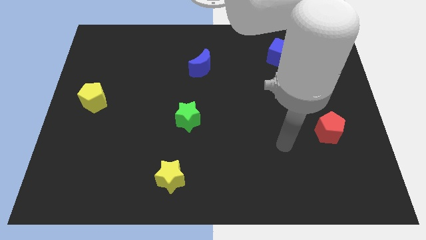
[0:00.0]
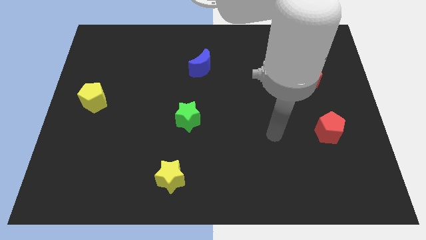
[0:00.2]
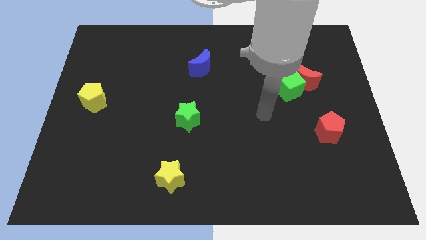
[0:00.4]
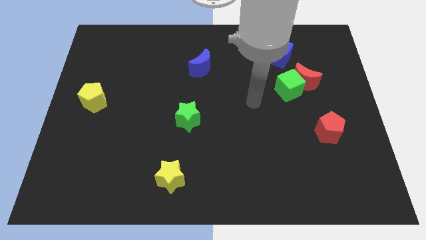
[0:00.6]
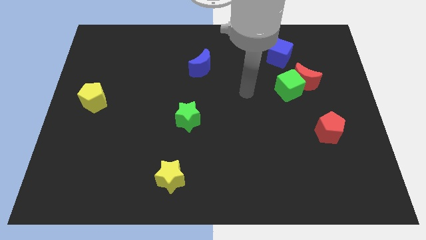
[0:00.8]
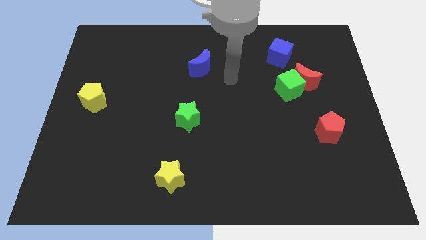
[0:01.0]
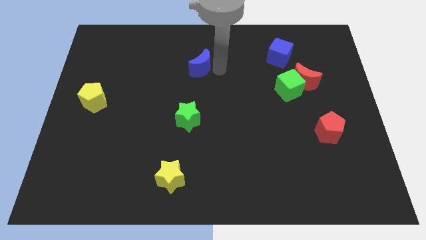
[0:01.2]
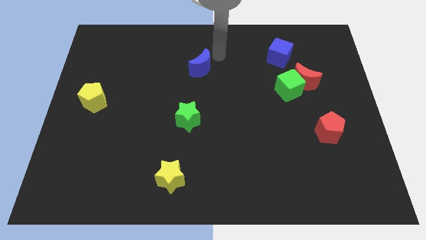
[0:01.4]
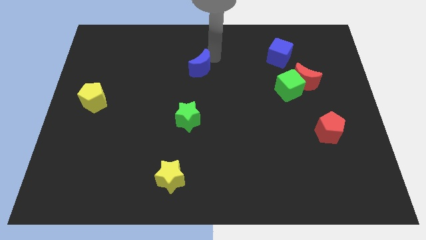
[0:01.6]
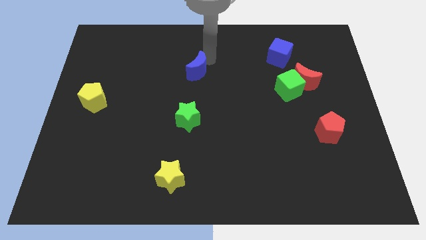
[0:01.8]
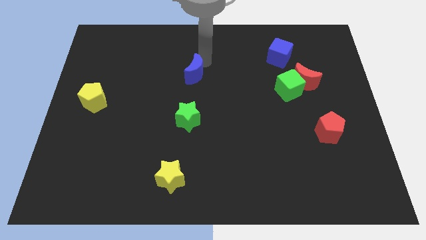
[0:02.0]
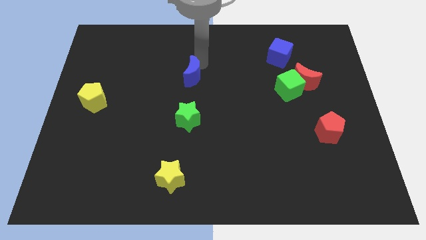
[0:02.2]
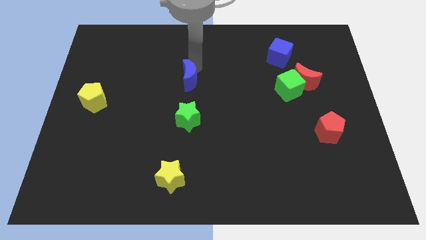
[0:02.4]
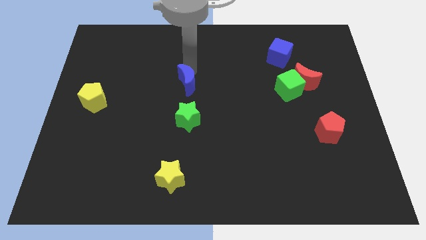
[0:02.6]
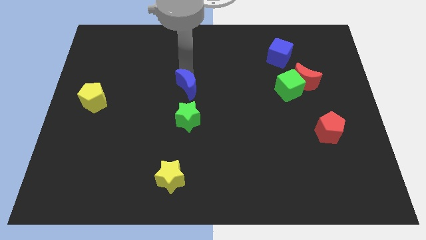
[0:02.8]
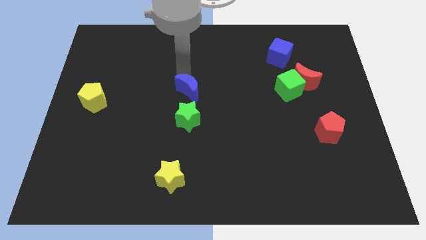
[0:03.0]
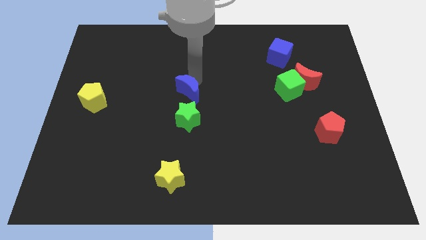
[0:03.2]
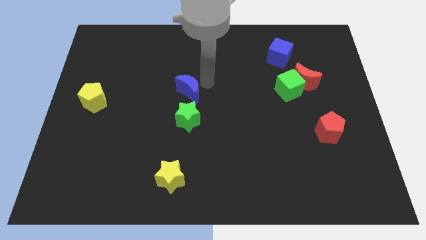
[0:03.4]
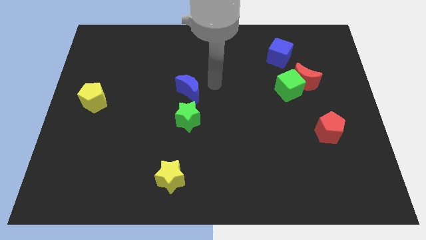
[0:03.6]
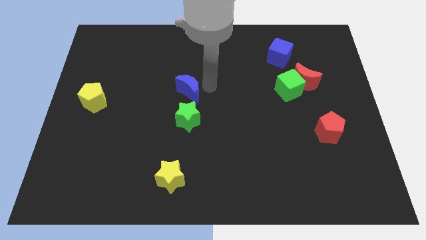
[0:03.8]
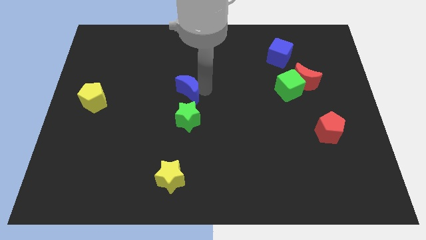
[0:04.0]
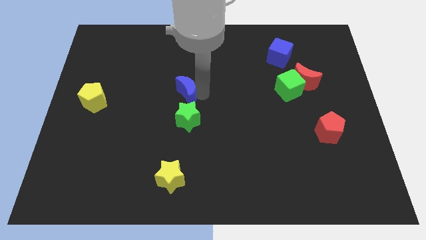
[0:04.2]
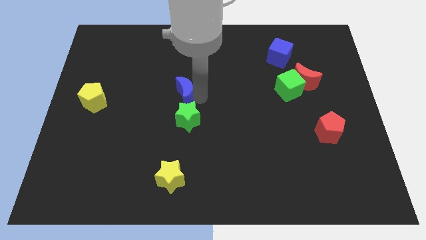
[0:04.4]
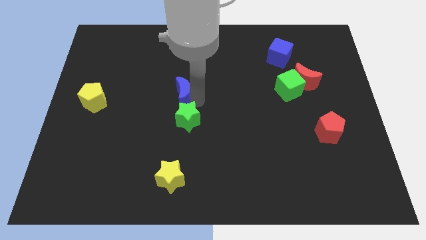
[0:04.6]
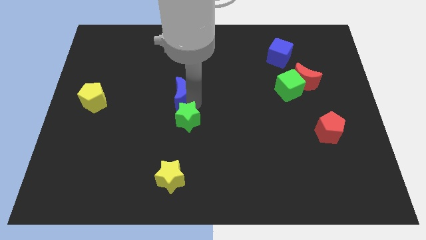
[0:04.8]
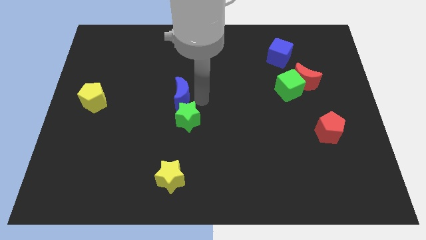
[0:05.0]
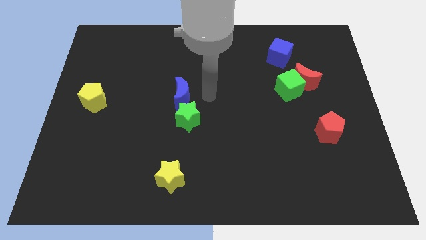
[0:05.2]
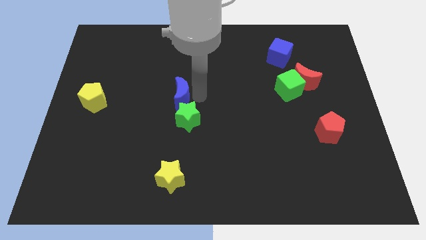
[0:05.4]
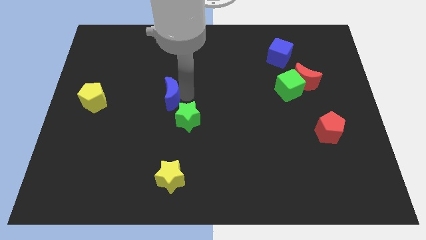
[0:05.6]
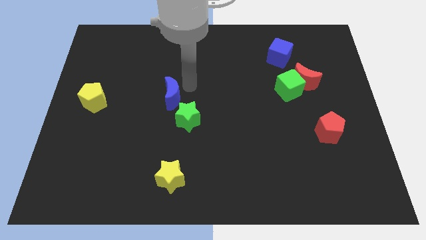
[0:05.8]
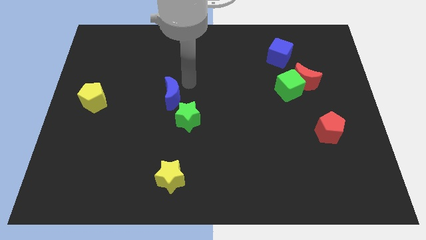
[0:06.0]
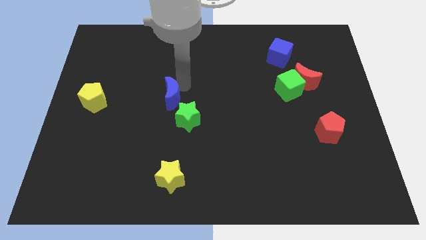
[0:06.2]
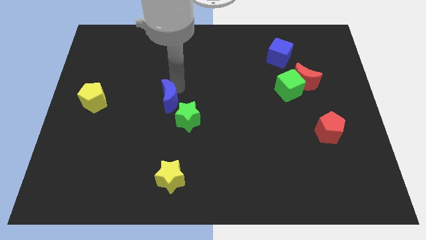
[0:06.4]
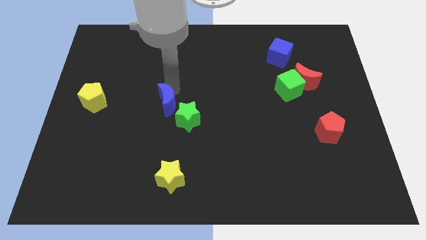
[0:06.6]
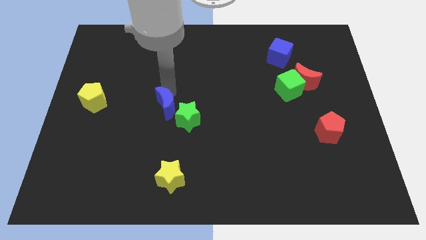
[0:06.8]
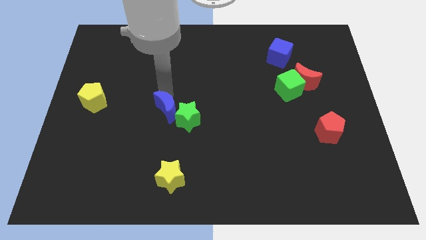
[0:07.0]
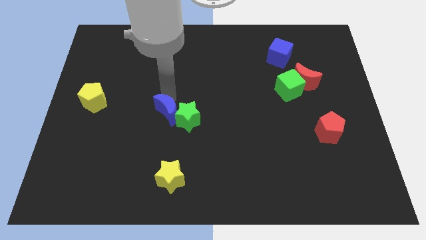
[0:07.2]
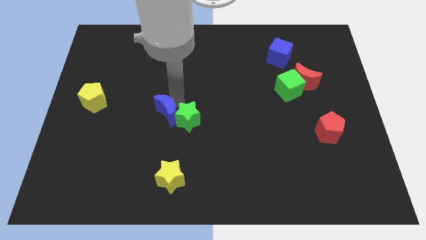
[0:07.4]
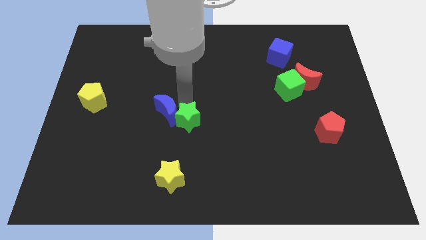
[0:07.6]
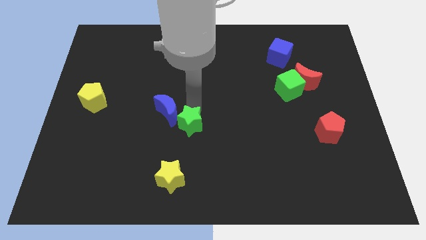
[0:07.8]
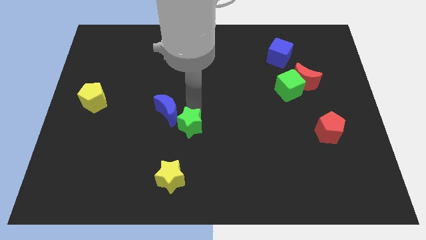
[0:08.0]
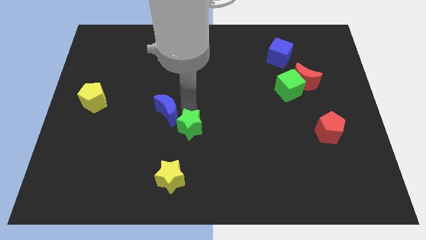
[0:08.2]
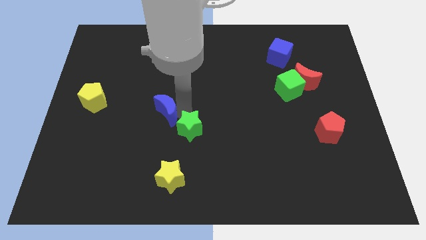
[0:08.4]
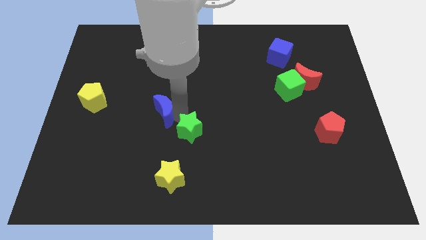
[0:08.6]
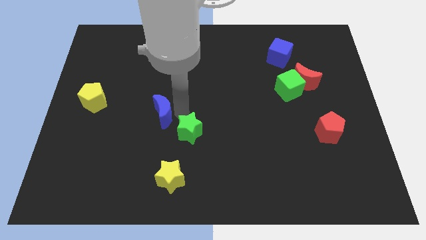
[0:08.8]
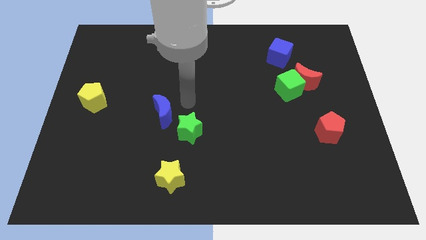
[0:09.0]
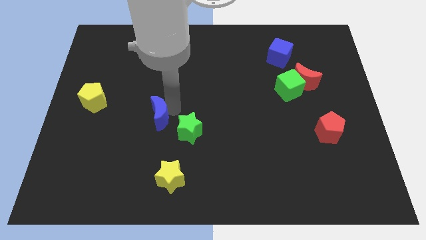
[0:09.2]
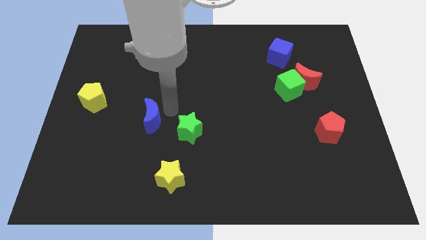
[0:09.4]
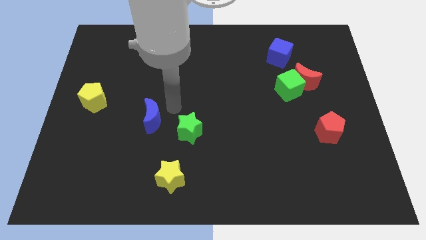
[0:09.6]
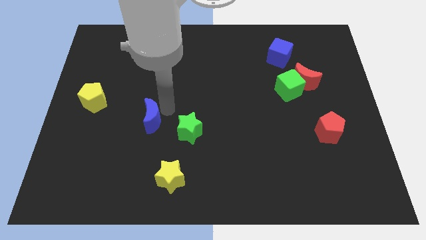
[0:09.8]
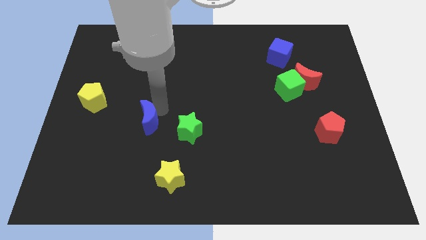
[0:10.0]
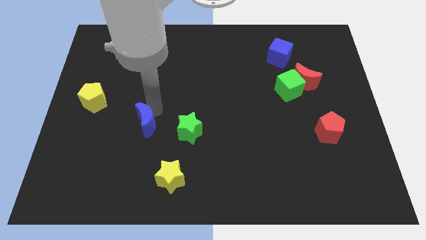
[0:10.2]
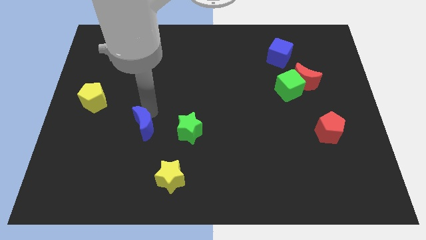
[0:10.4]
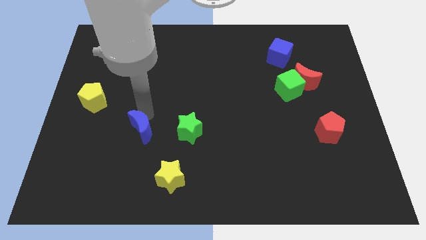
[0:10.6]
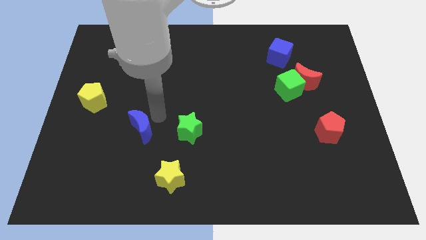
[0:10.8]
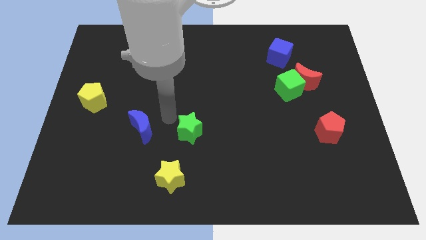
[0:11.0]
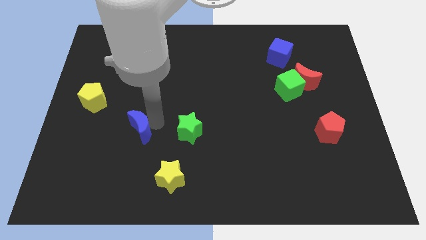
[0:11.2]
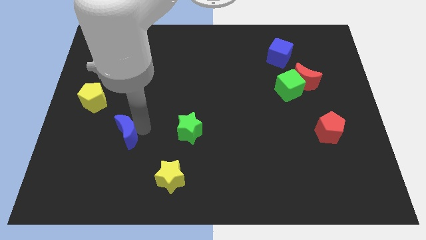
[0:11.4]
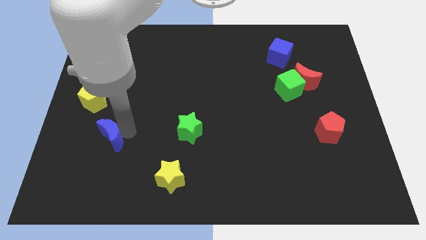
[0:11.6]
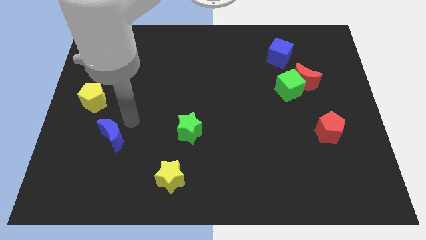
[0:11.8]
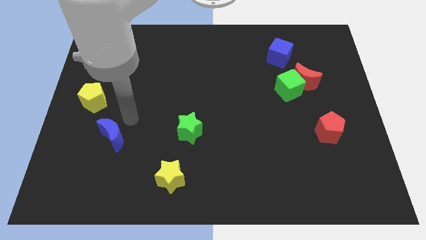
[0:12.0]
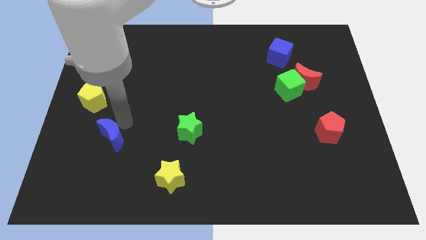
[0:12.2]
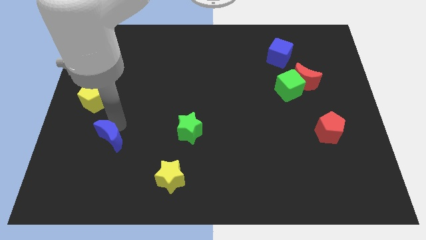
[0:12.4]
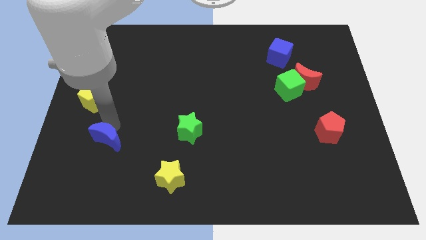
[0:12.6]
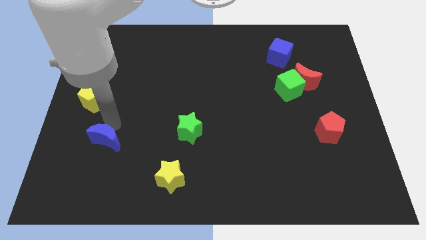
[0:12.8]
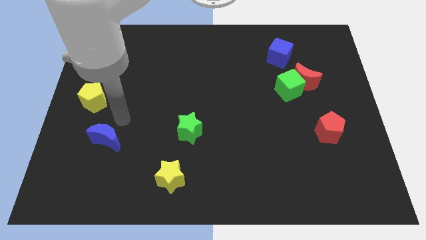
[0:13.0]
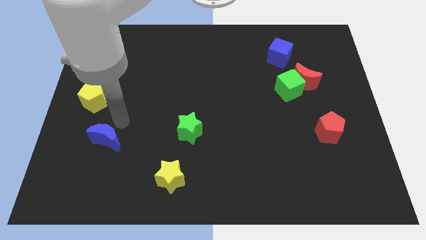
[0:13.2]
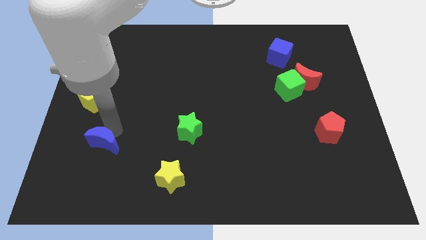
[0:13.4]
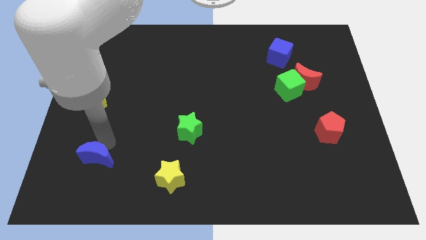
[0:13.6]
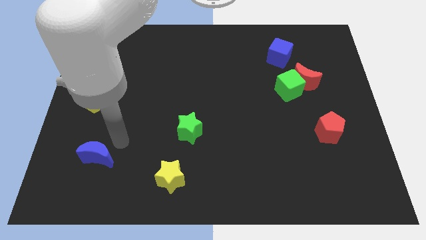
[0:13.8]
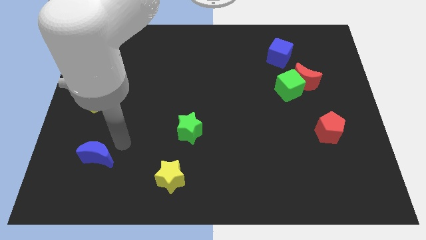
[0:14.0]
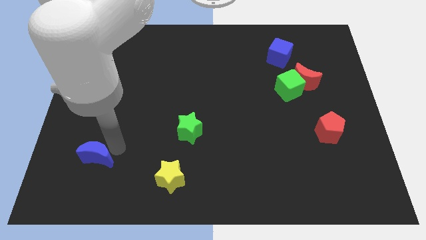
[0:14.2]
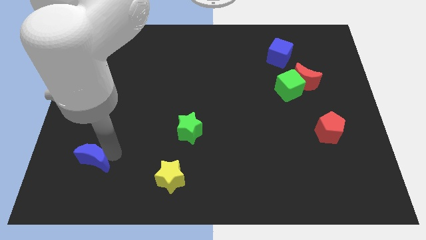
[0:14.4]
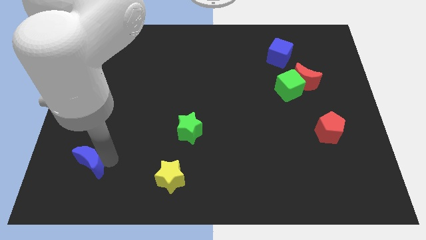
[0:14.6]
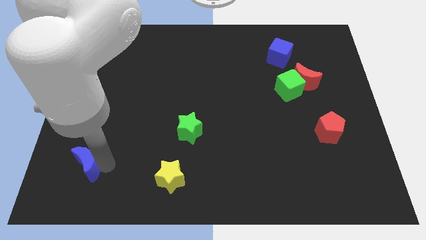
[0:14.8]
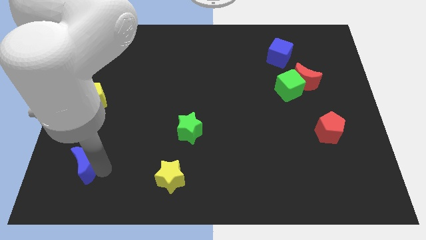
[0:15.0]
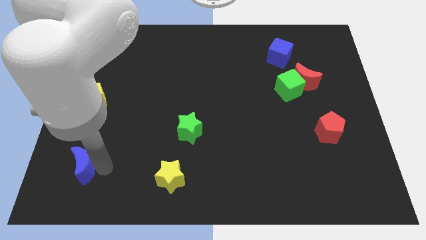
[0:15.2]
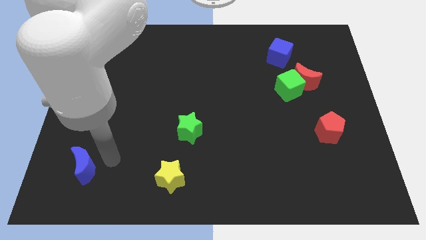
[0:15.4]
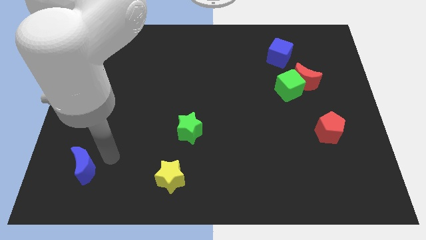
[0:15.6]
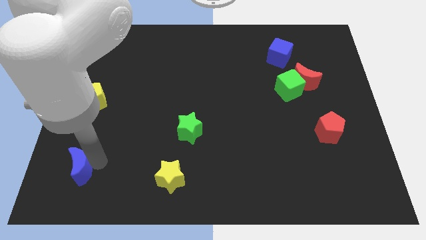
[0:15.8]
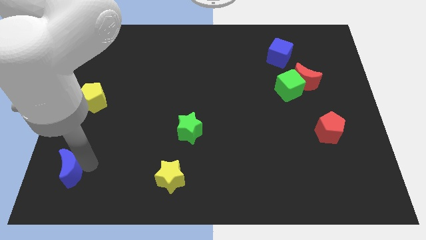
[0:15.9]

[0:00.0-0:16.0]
push the blue moon to the bottom left of the board
